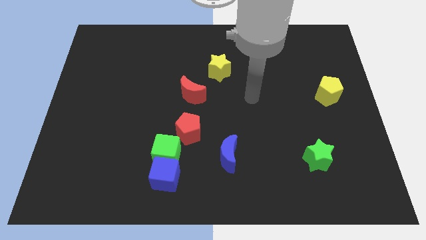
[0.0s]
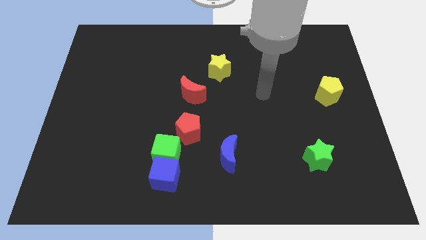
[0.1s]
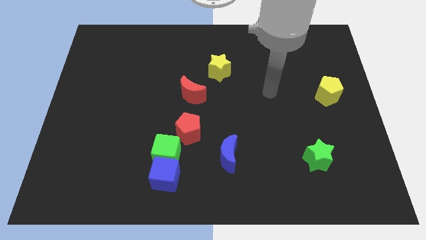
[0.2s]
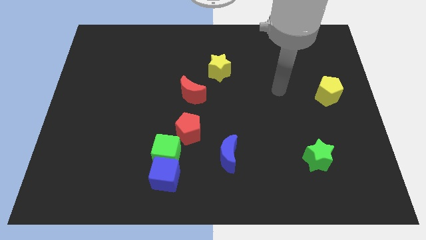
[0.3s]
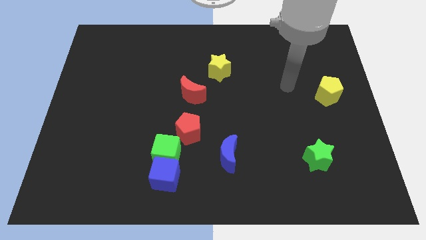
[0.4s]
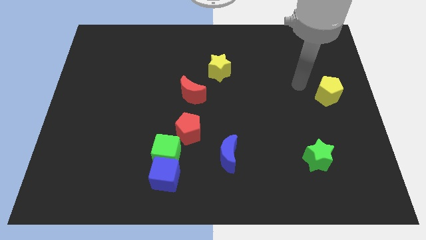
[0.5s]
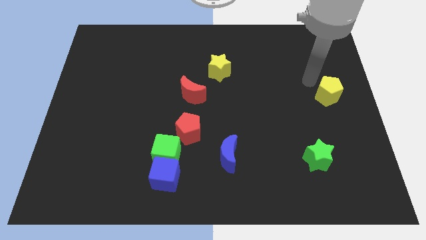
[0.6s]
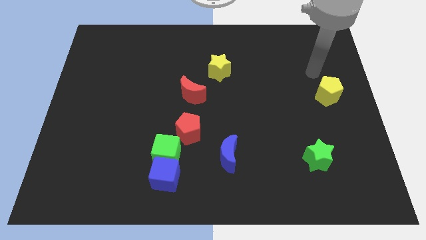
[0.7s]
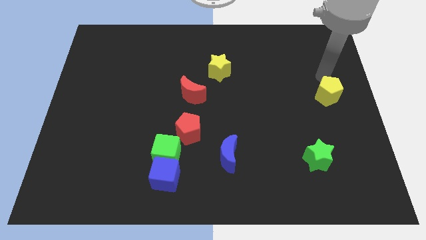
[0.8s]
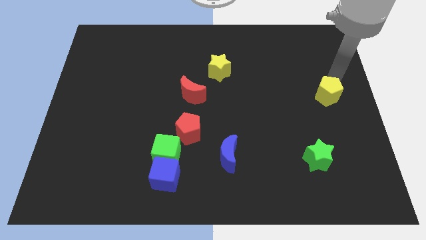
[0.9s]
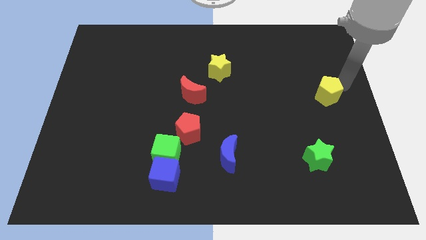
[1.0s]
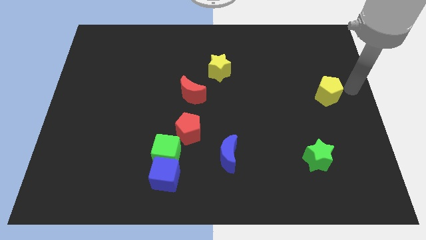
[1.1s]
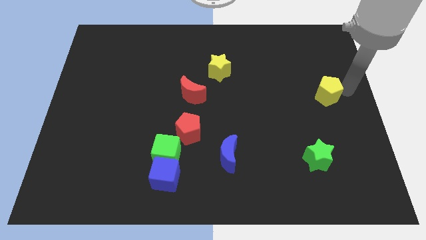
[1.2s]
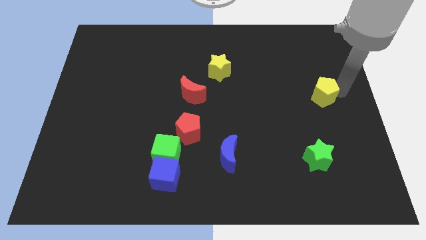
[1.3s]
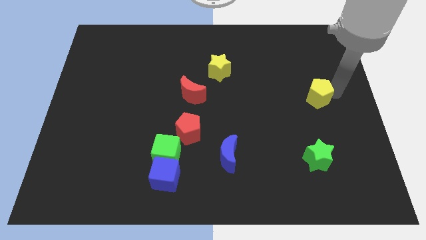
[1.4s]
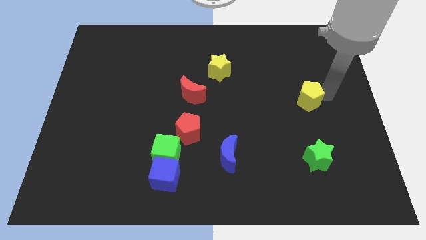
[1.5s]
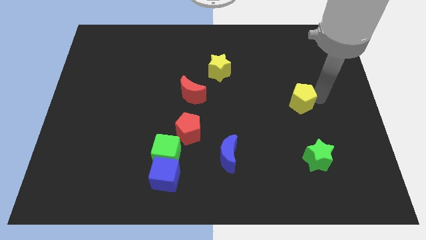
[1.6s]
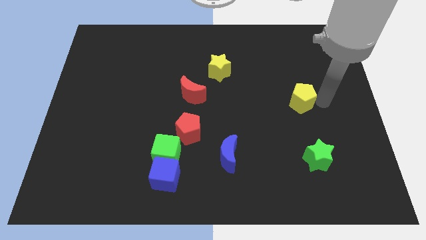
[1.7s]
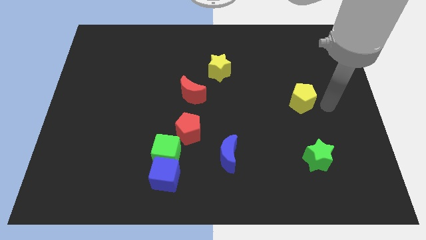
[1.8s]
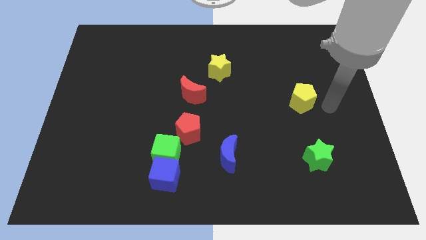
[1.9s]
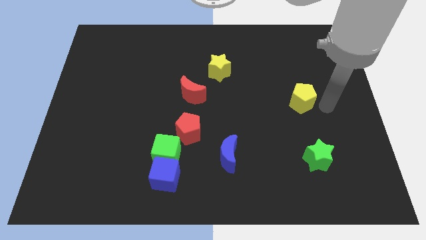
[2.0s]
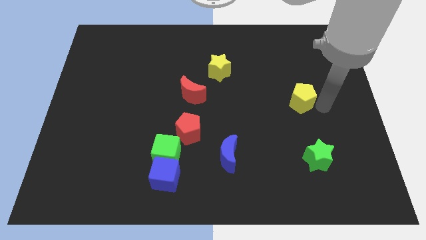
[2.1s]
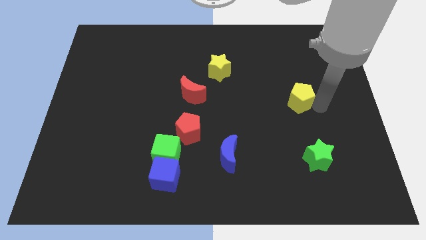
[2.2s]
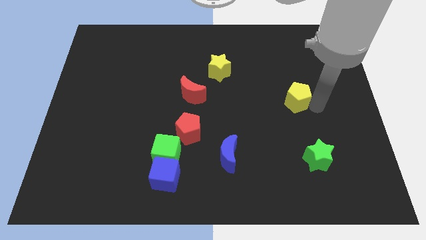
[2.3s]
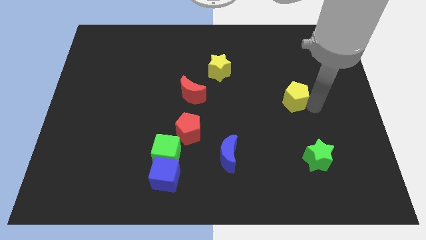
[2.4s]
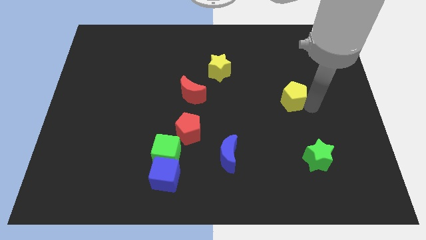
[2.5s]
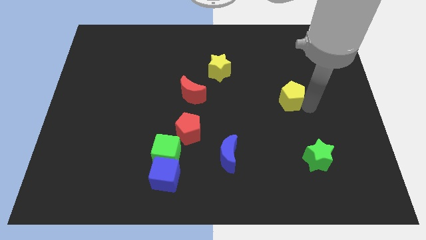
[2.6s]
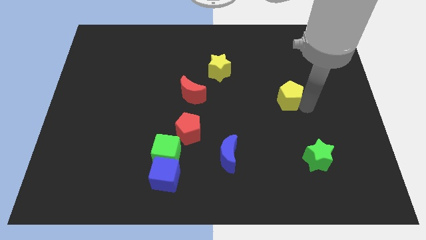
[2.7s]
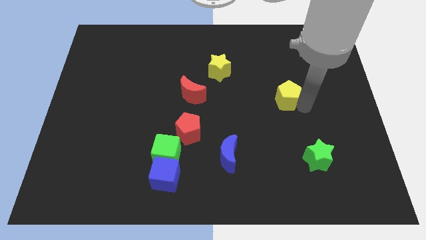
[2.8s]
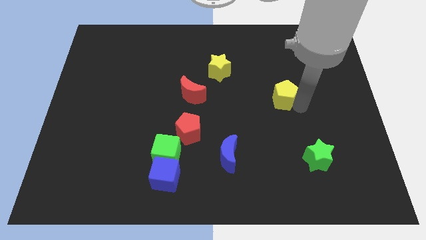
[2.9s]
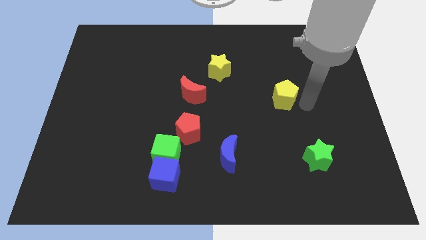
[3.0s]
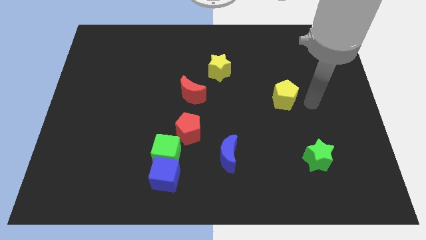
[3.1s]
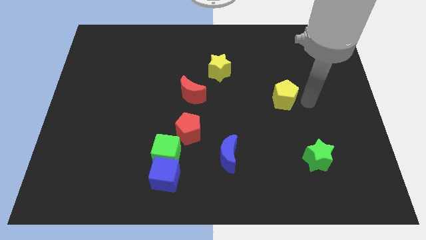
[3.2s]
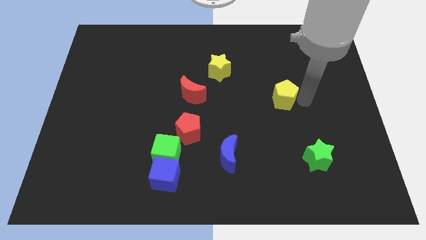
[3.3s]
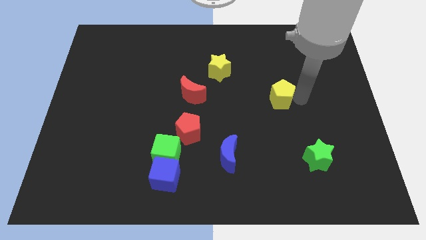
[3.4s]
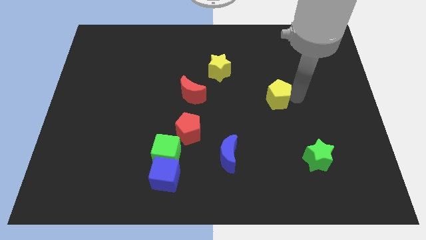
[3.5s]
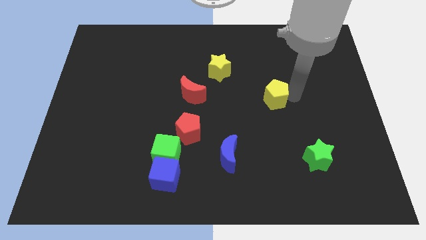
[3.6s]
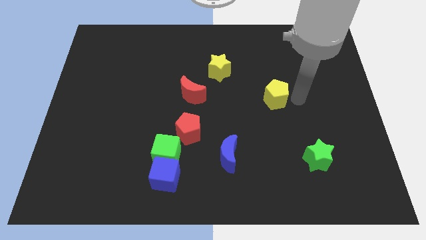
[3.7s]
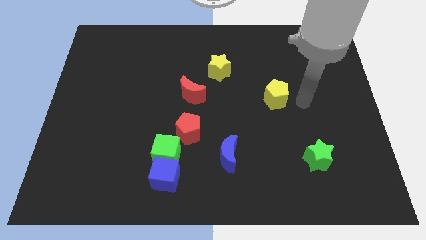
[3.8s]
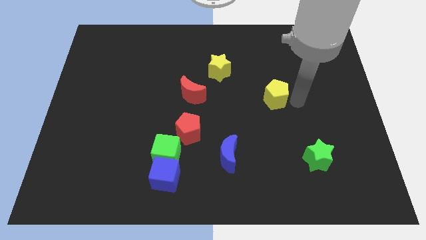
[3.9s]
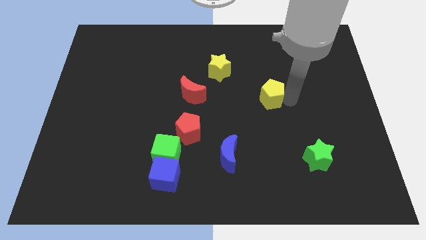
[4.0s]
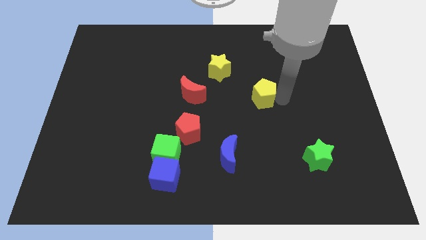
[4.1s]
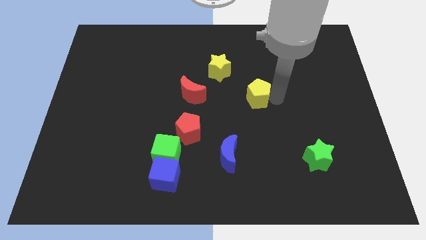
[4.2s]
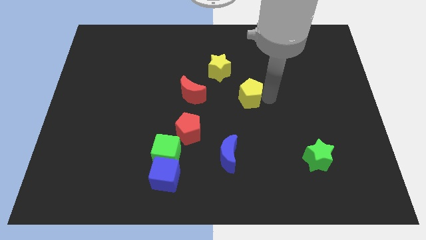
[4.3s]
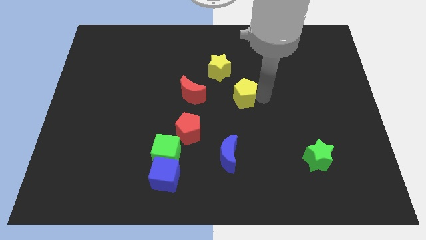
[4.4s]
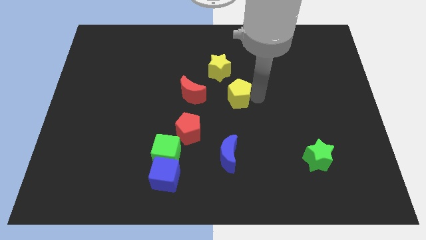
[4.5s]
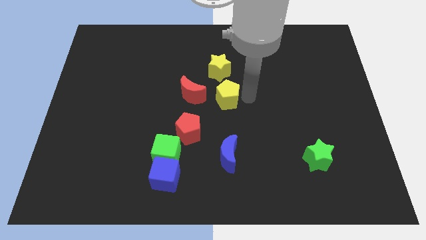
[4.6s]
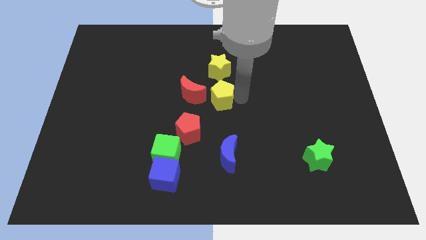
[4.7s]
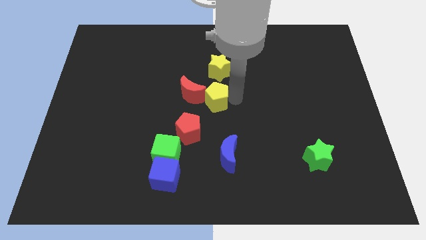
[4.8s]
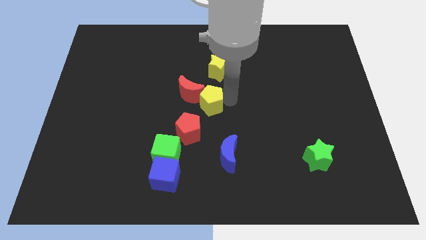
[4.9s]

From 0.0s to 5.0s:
move the yellow pentagon towards the red moon

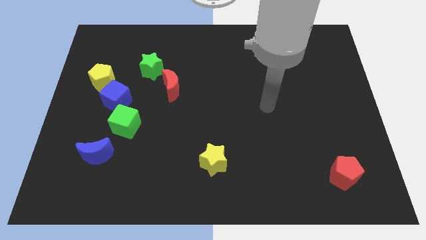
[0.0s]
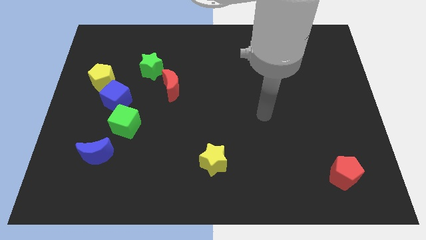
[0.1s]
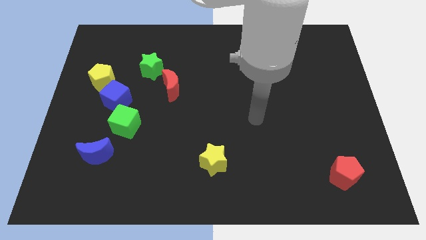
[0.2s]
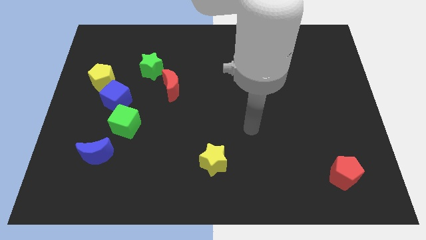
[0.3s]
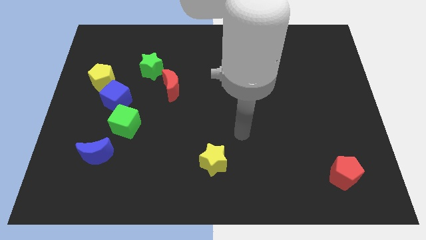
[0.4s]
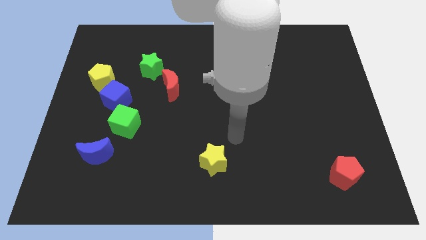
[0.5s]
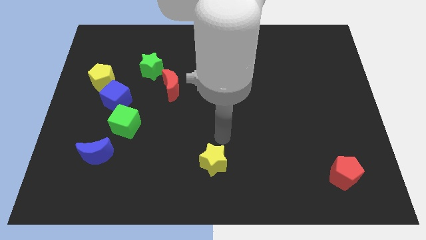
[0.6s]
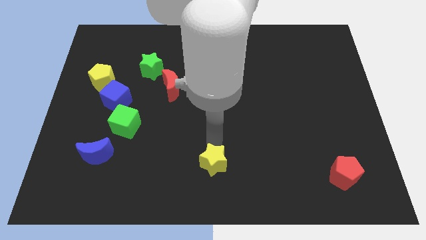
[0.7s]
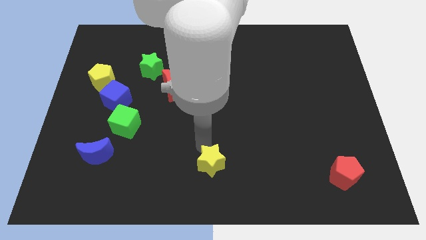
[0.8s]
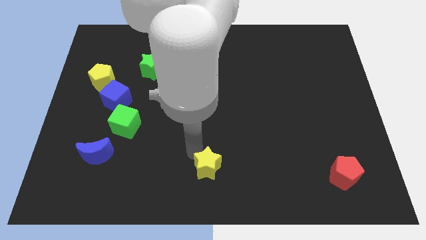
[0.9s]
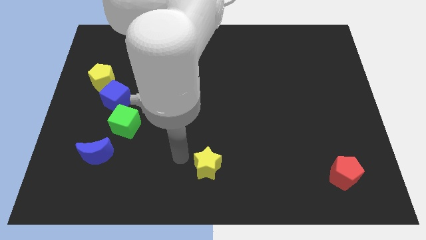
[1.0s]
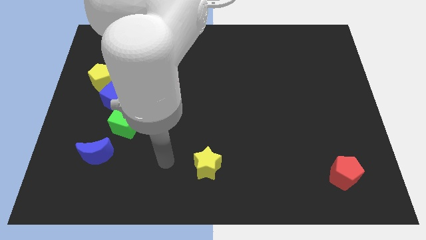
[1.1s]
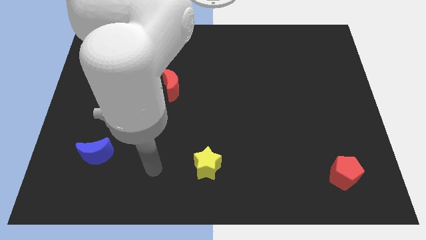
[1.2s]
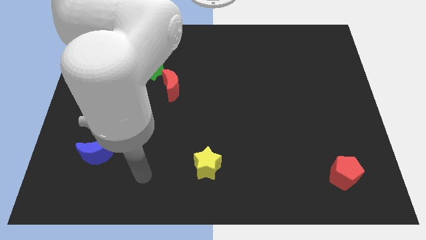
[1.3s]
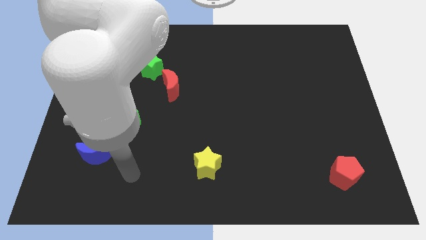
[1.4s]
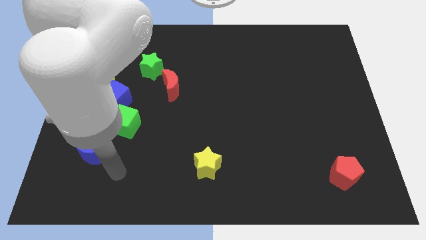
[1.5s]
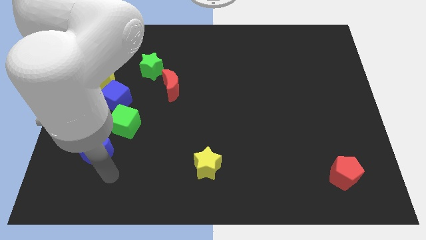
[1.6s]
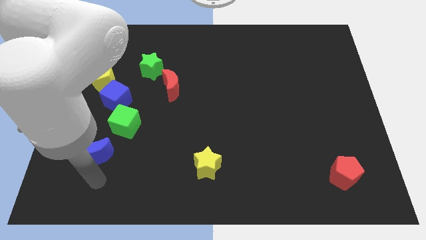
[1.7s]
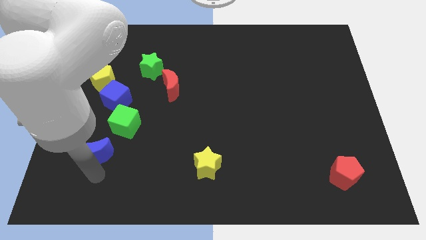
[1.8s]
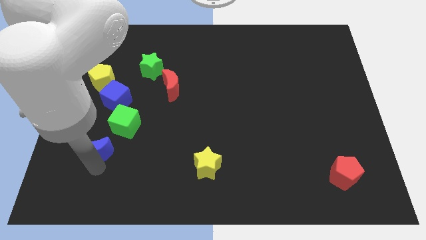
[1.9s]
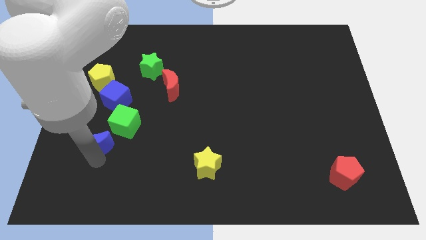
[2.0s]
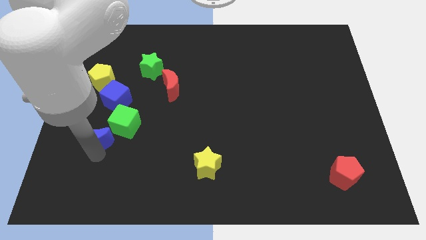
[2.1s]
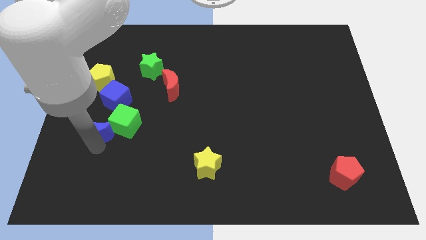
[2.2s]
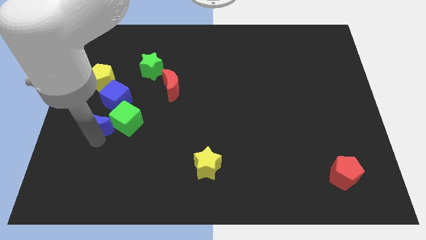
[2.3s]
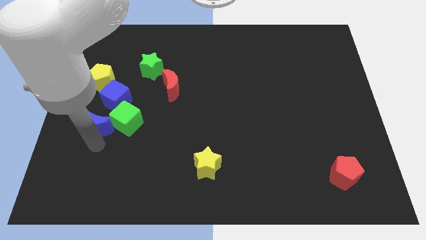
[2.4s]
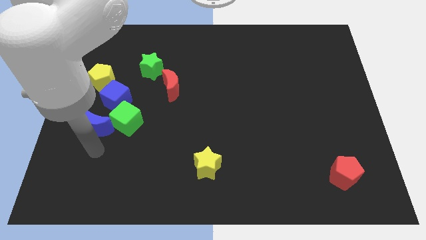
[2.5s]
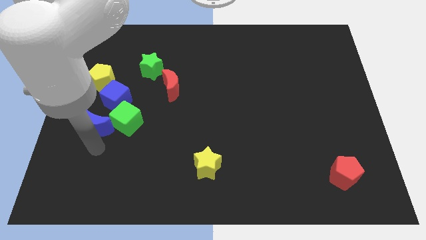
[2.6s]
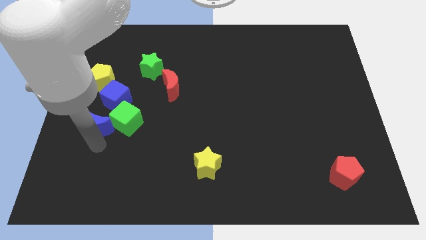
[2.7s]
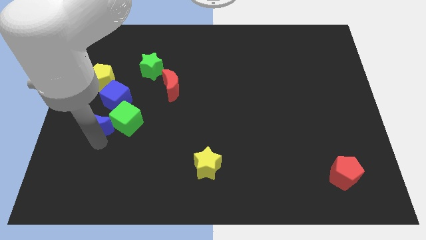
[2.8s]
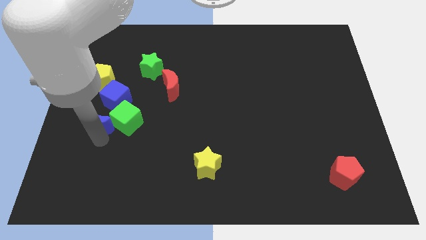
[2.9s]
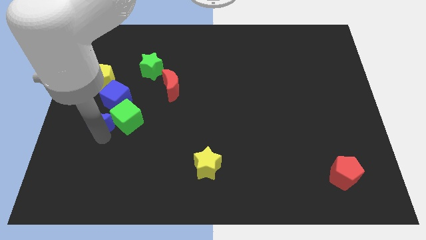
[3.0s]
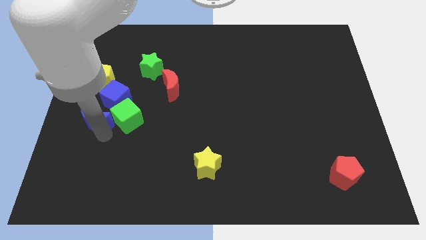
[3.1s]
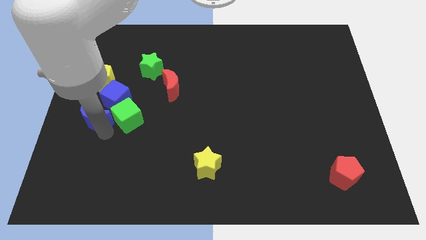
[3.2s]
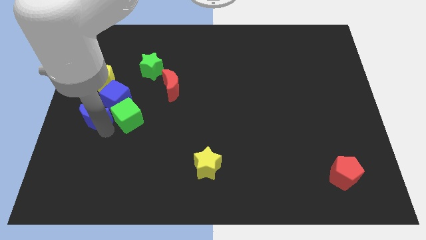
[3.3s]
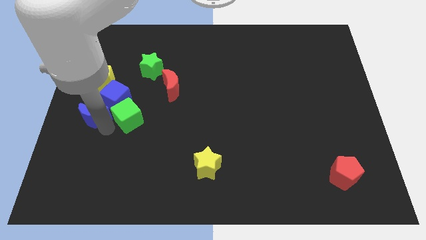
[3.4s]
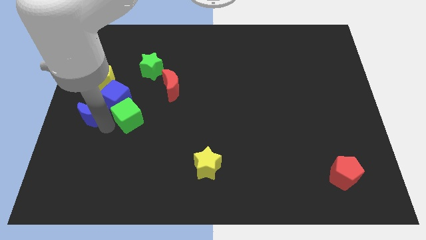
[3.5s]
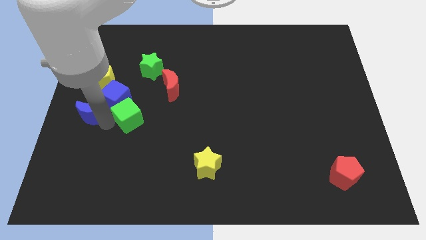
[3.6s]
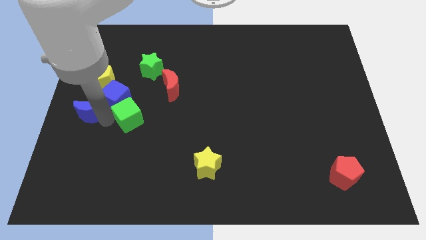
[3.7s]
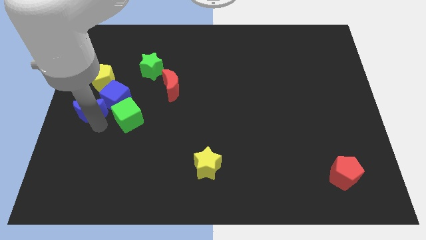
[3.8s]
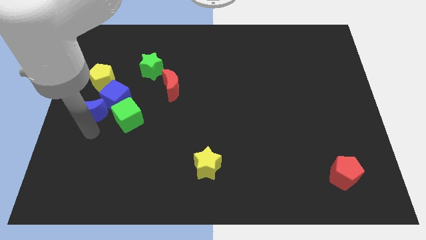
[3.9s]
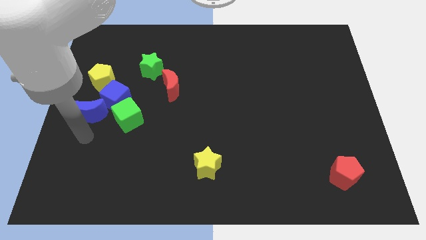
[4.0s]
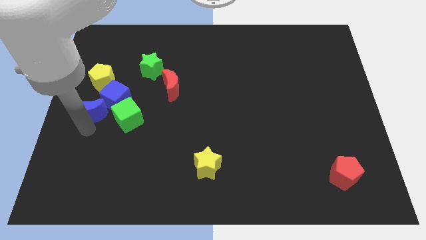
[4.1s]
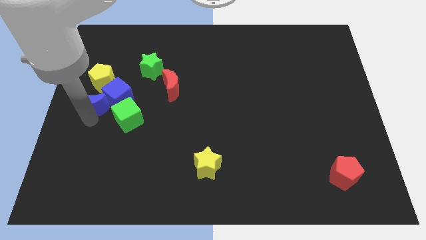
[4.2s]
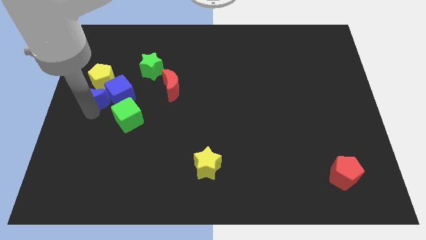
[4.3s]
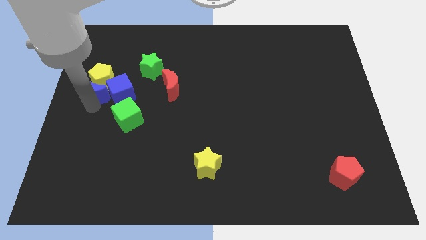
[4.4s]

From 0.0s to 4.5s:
push the blue moon to the yellow pentagon
